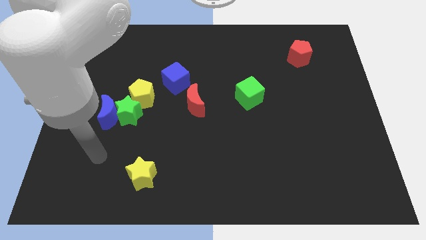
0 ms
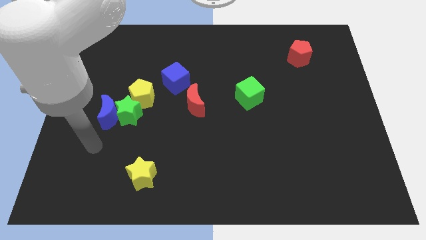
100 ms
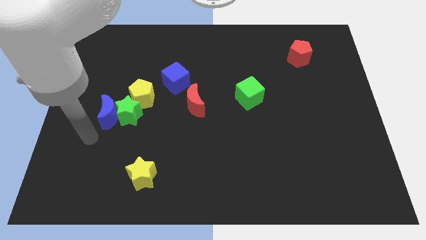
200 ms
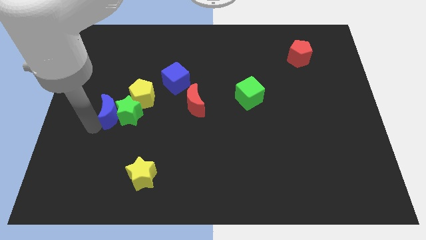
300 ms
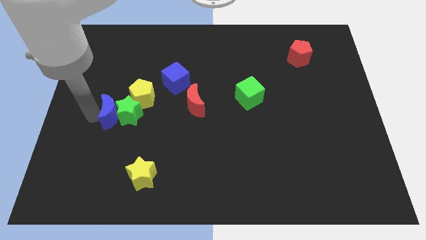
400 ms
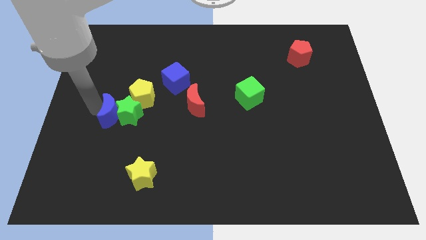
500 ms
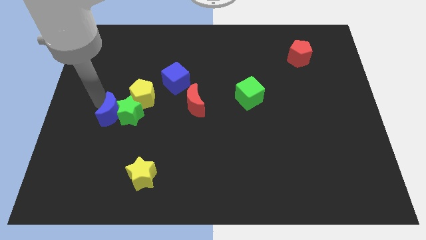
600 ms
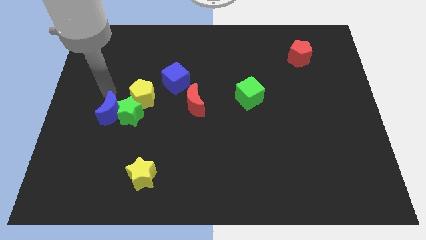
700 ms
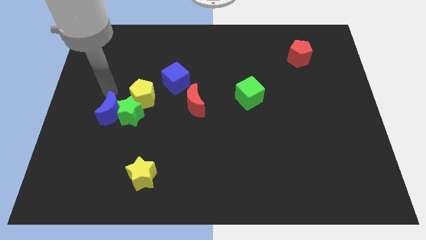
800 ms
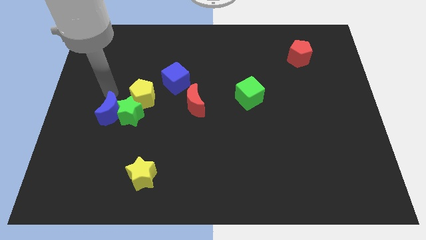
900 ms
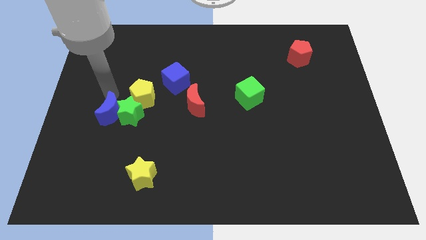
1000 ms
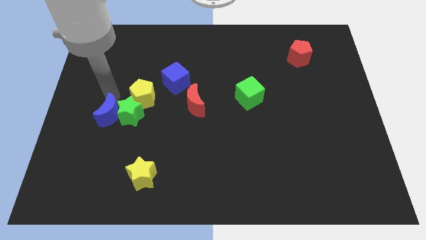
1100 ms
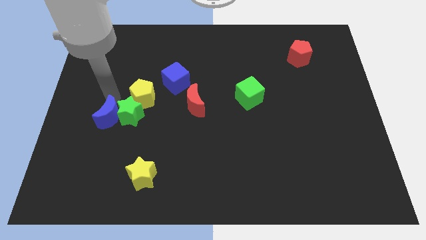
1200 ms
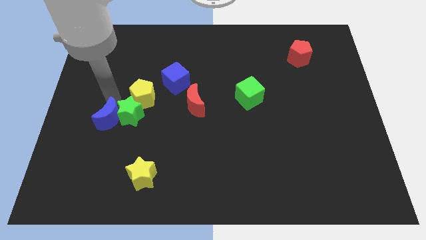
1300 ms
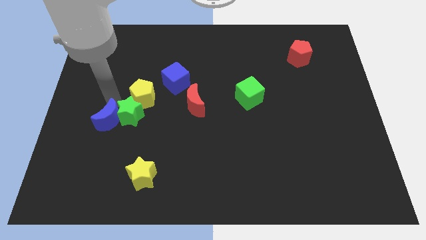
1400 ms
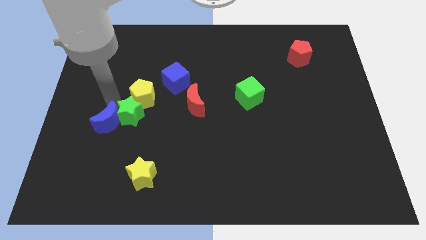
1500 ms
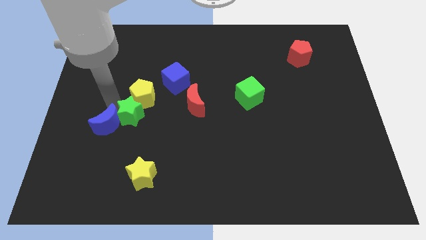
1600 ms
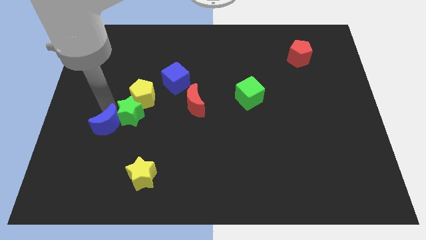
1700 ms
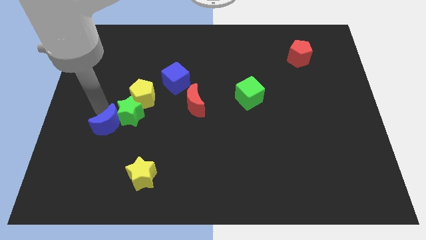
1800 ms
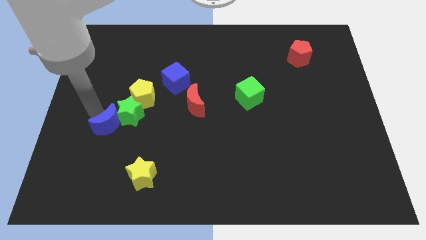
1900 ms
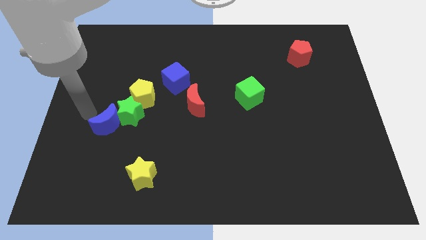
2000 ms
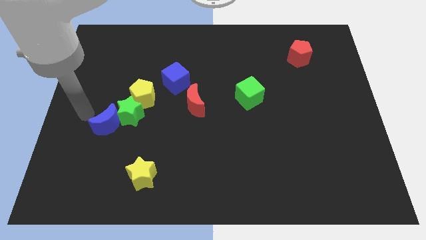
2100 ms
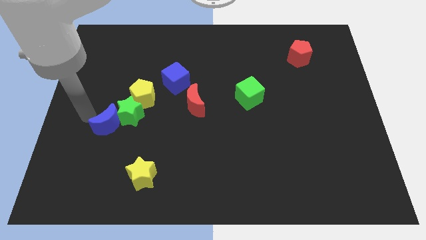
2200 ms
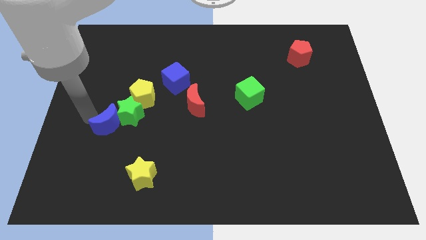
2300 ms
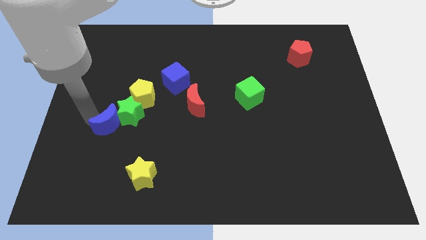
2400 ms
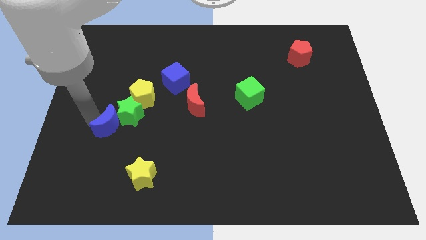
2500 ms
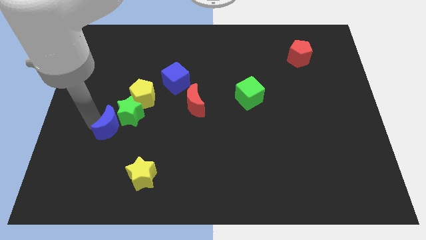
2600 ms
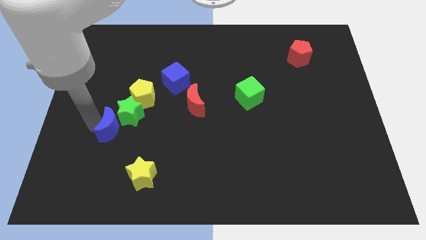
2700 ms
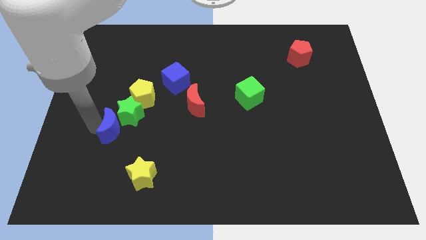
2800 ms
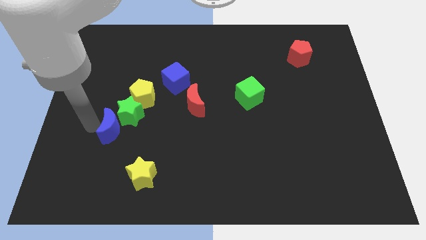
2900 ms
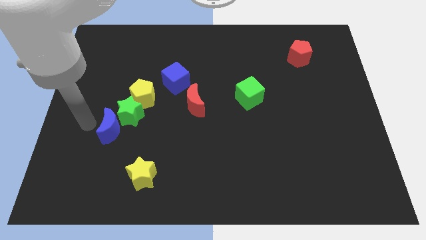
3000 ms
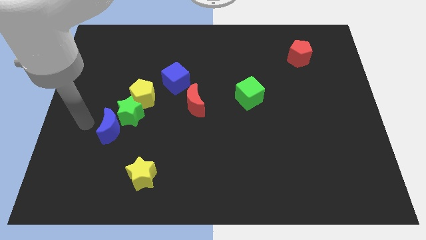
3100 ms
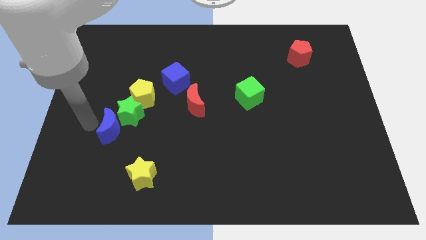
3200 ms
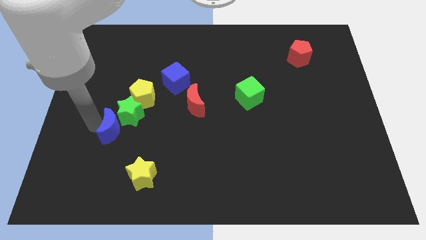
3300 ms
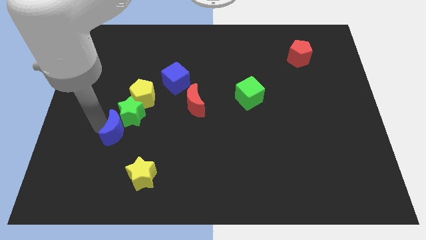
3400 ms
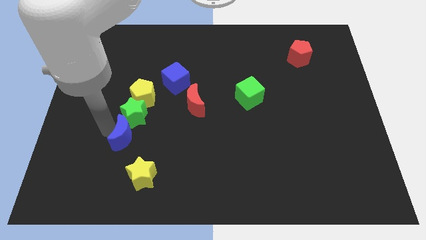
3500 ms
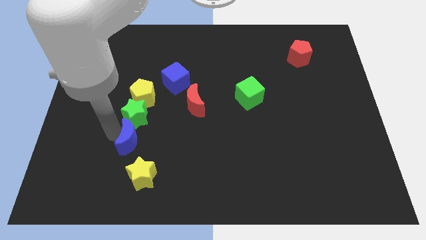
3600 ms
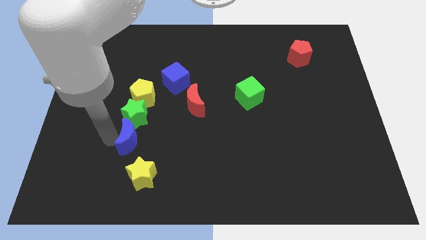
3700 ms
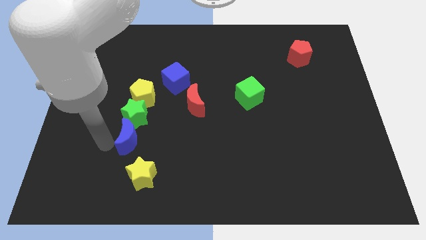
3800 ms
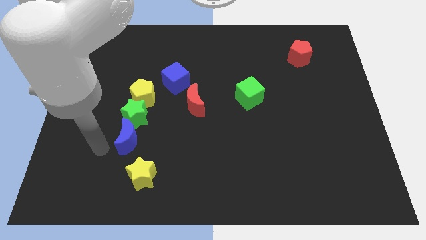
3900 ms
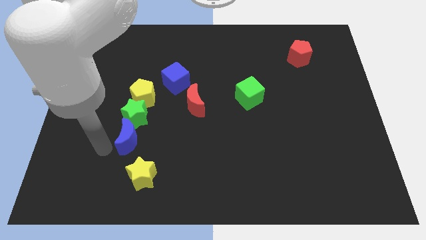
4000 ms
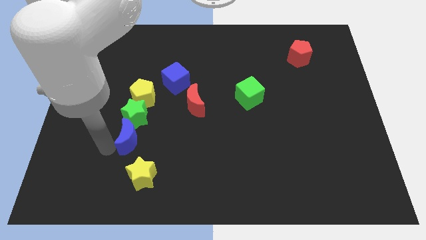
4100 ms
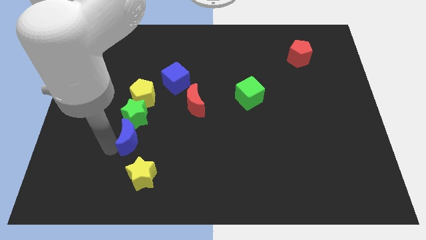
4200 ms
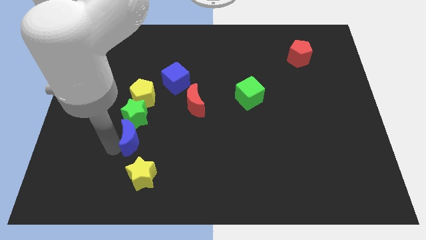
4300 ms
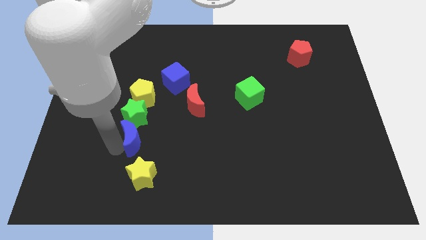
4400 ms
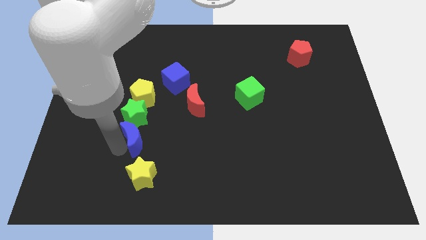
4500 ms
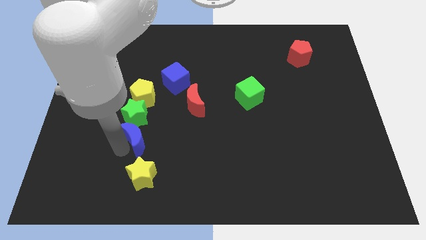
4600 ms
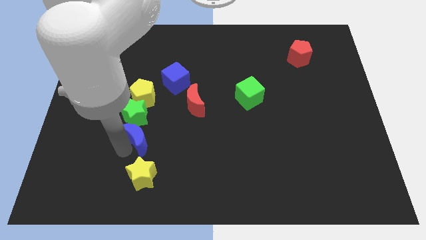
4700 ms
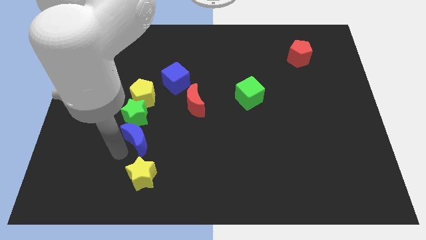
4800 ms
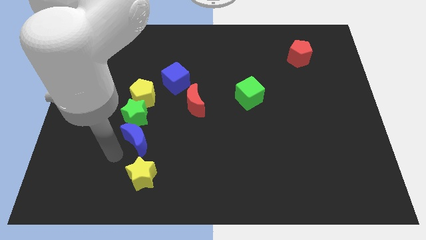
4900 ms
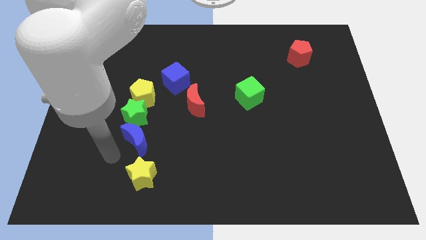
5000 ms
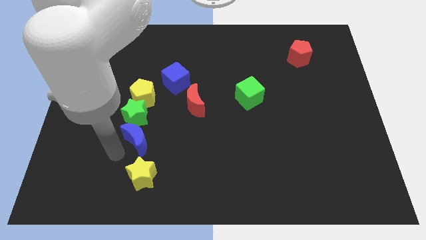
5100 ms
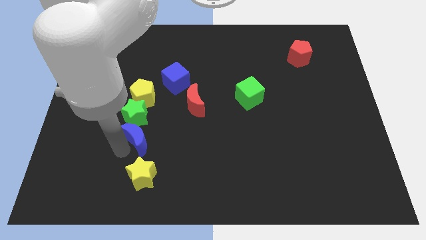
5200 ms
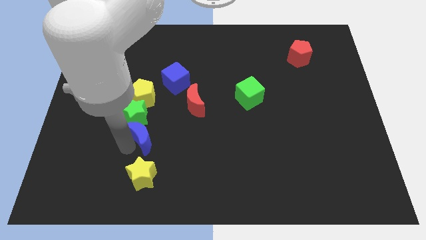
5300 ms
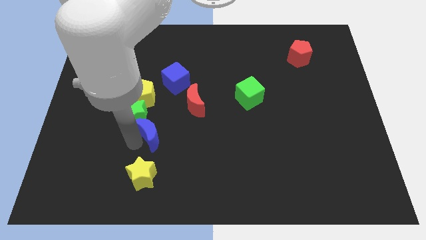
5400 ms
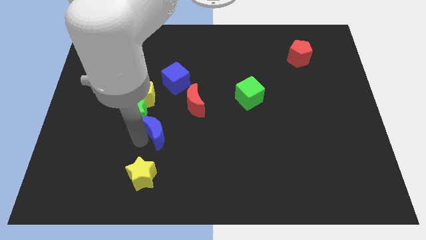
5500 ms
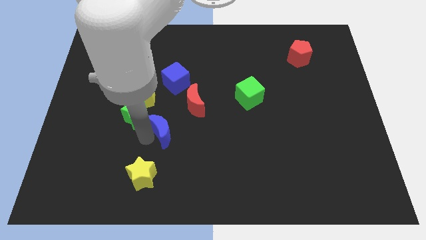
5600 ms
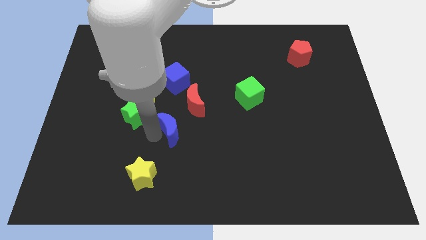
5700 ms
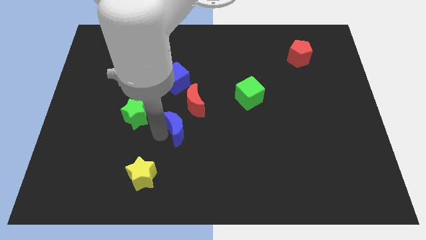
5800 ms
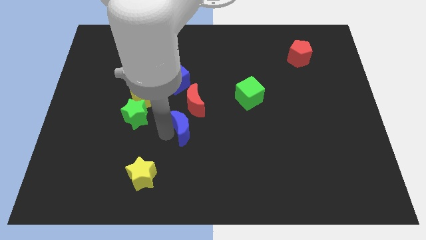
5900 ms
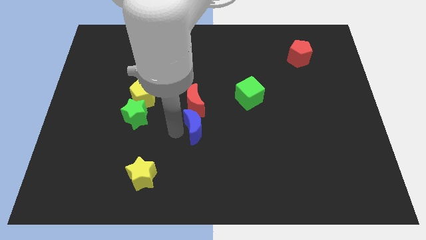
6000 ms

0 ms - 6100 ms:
push the blue moon to the bottom right side of the red moon

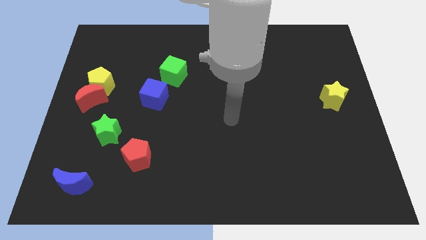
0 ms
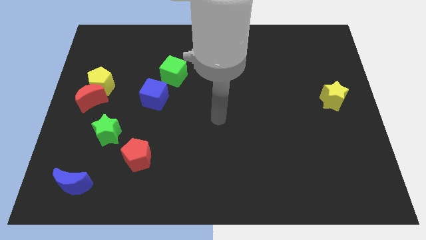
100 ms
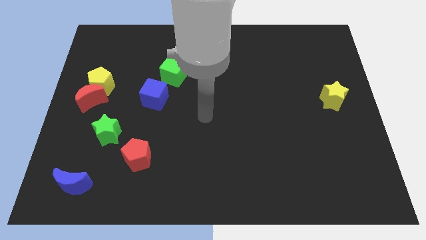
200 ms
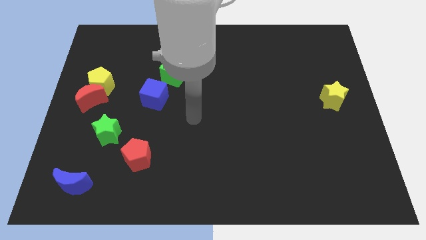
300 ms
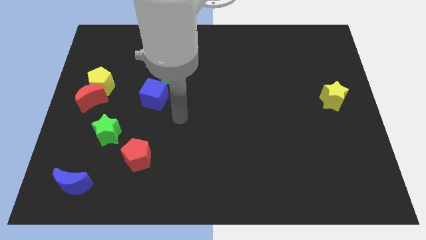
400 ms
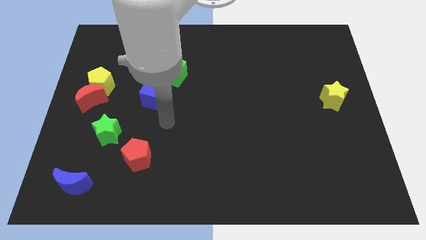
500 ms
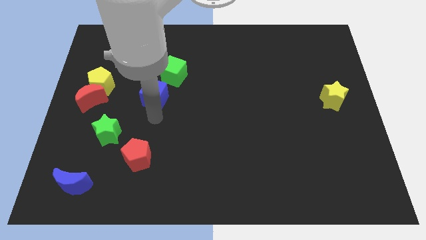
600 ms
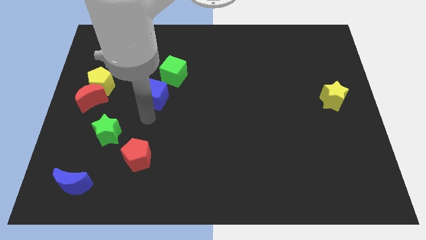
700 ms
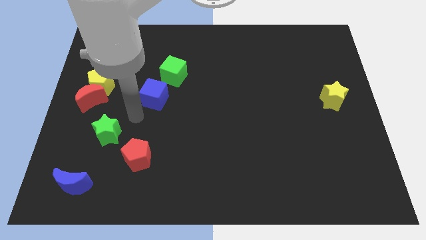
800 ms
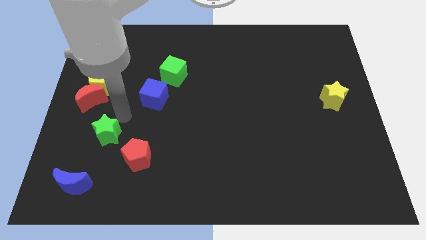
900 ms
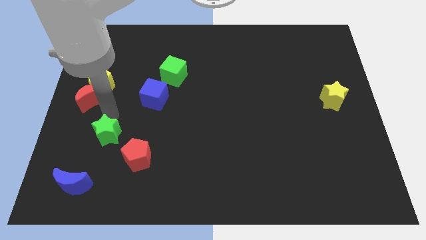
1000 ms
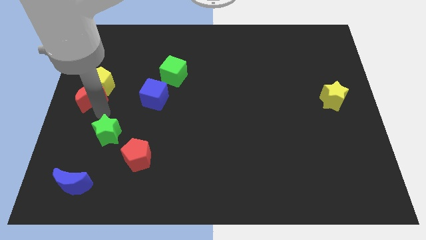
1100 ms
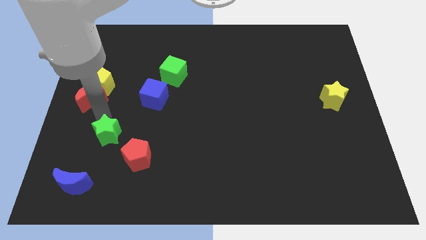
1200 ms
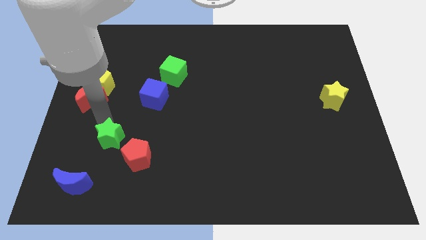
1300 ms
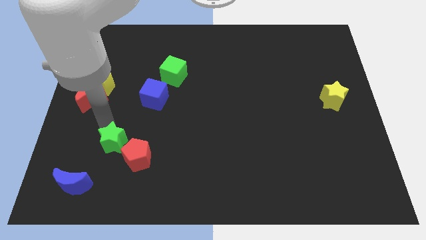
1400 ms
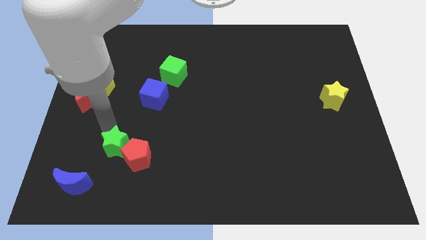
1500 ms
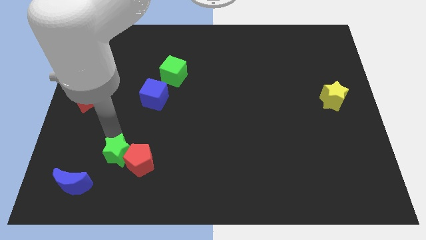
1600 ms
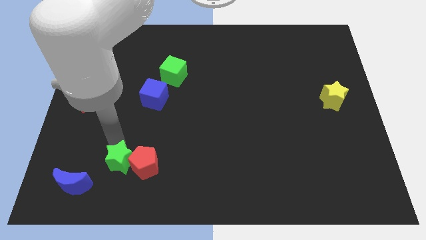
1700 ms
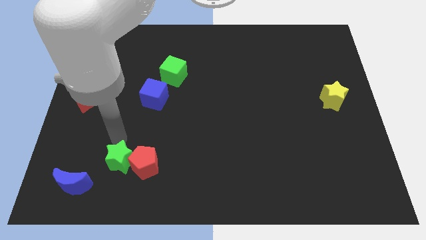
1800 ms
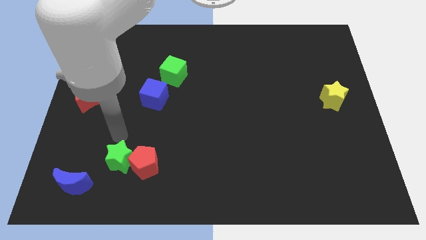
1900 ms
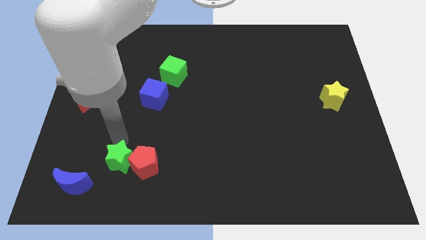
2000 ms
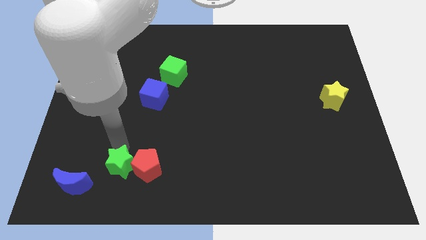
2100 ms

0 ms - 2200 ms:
move the green star just right of the blue moon
